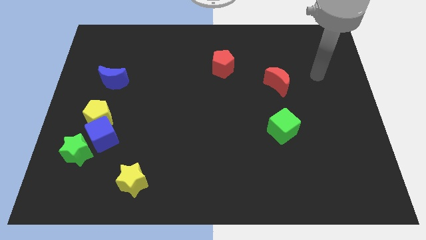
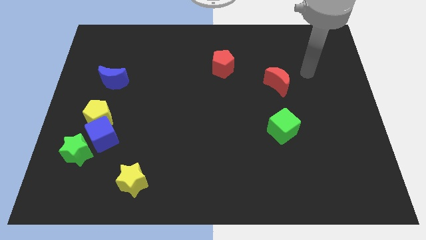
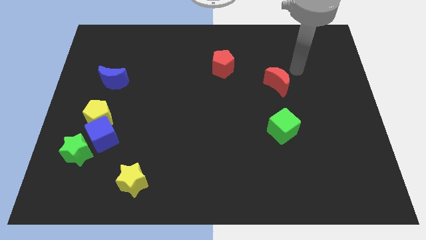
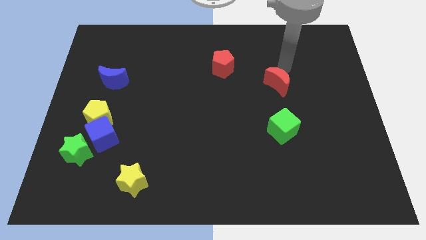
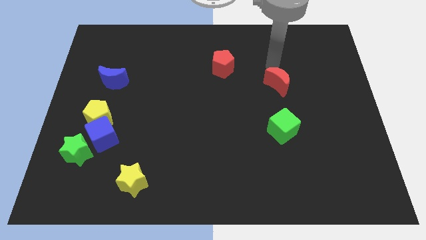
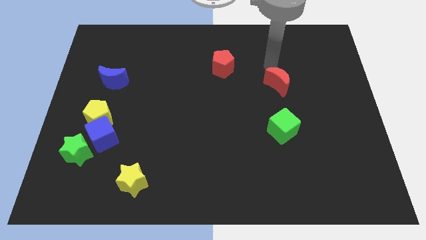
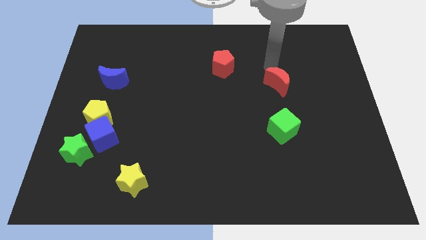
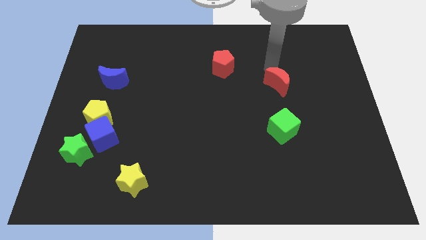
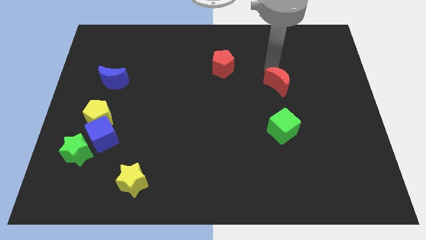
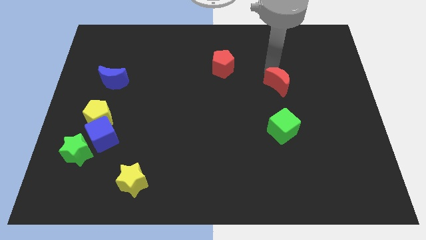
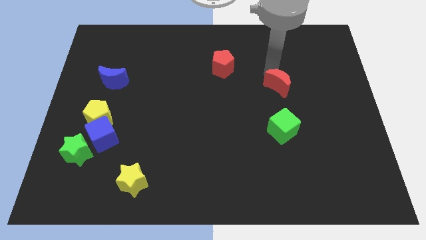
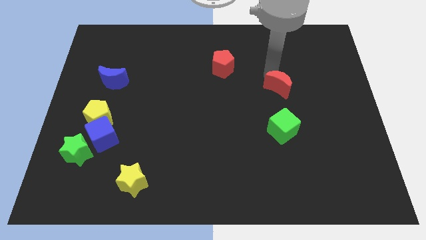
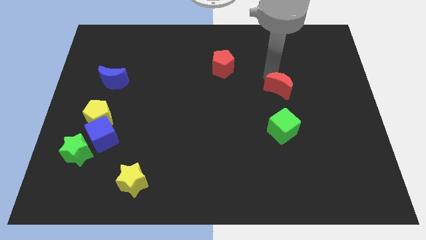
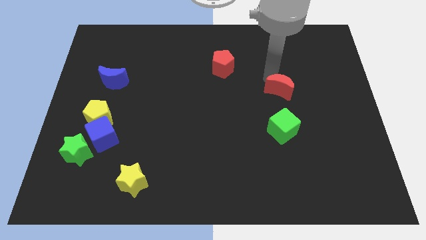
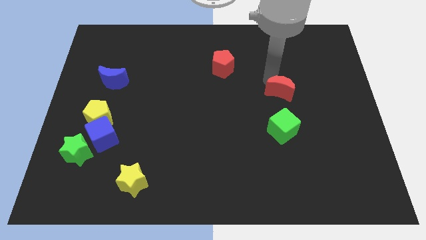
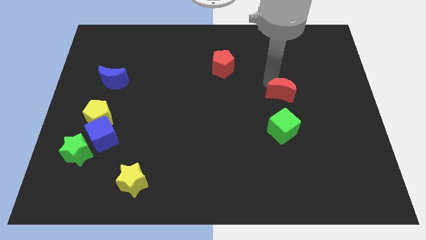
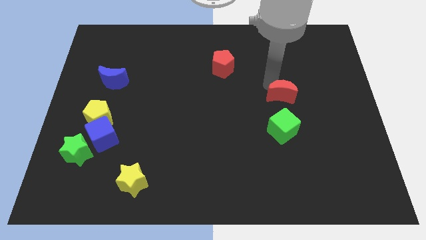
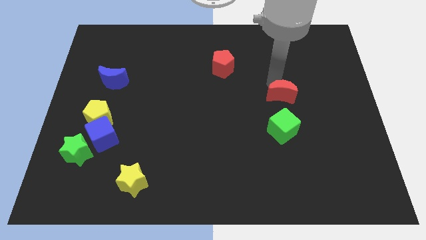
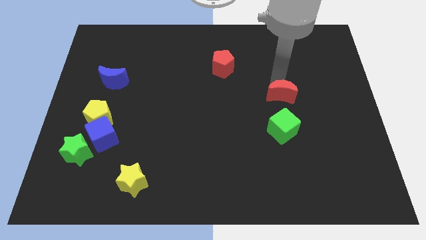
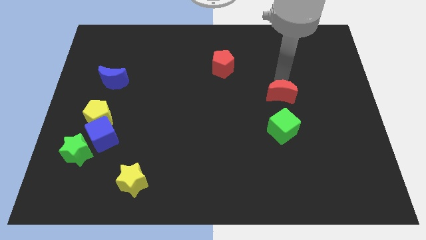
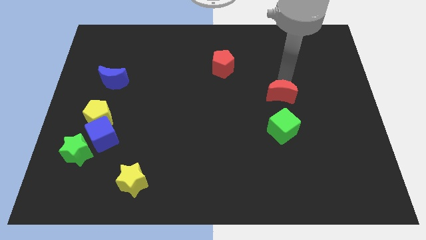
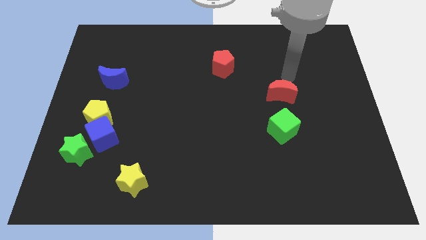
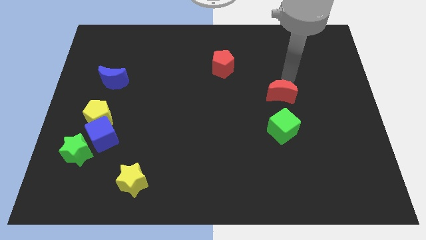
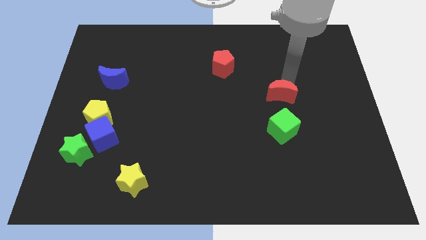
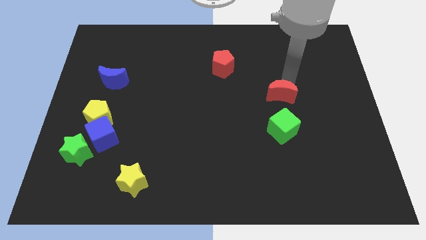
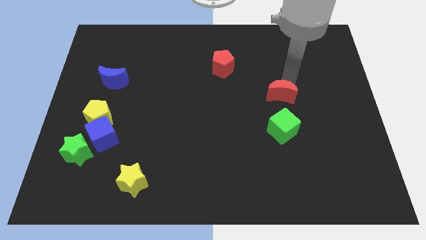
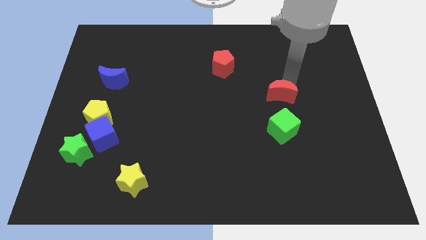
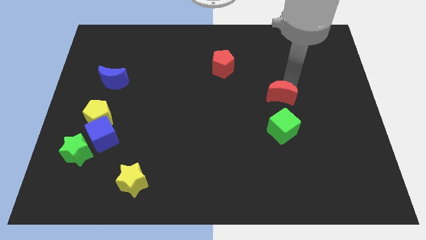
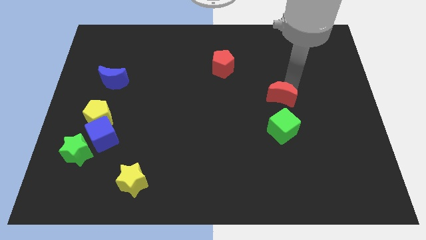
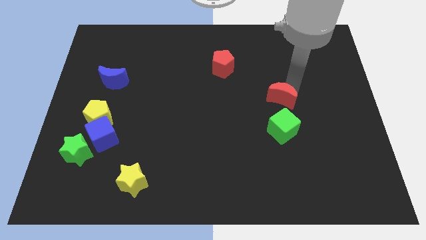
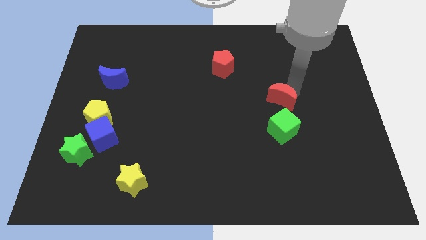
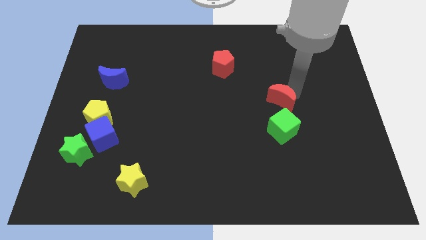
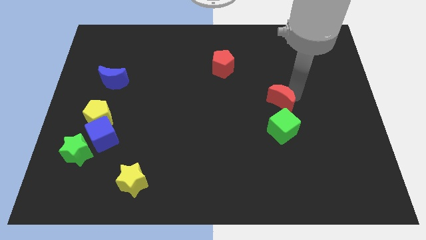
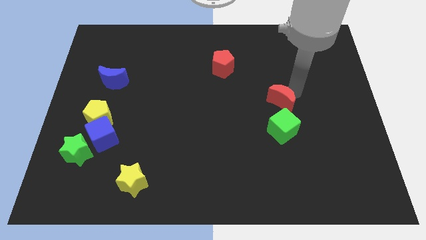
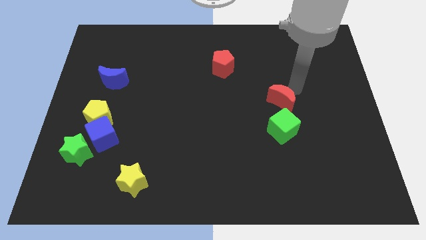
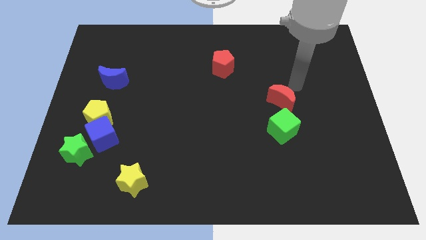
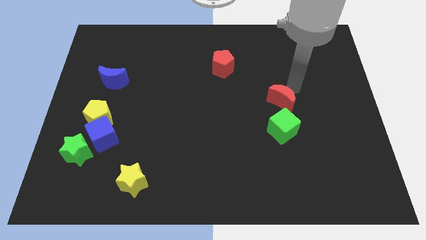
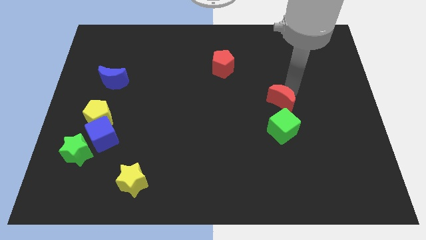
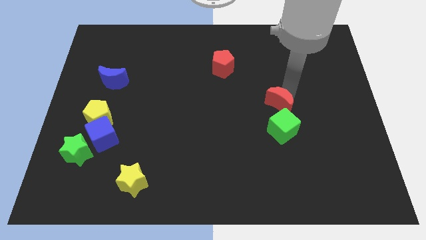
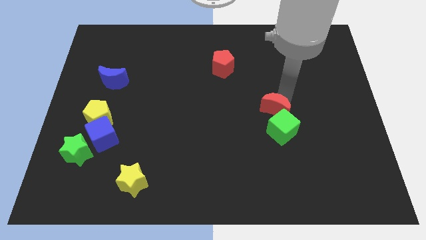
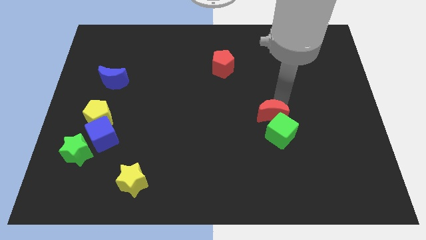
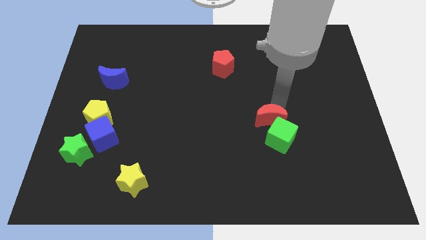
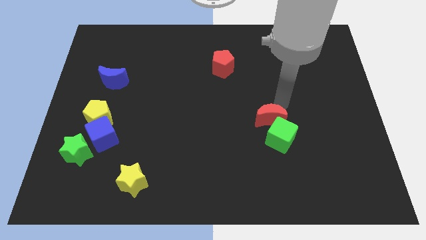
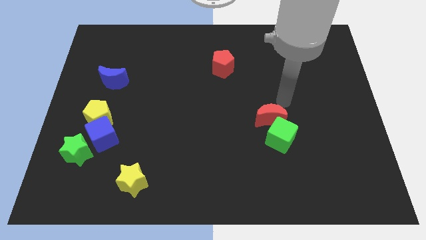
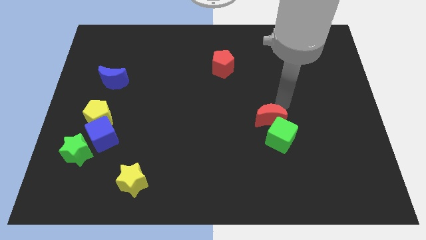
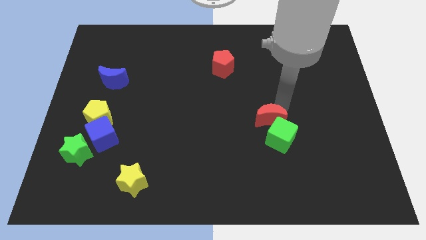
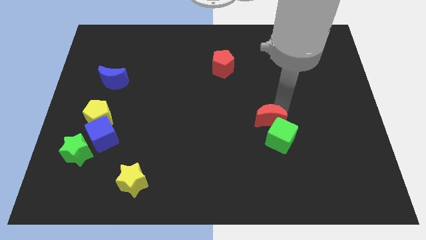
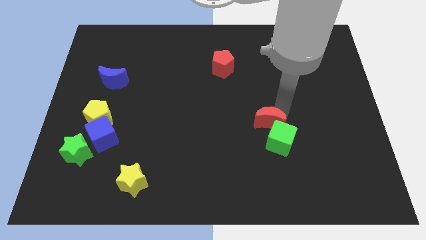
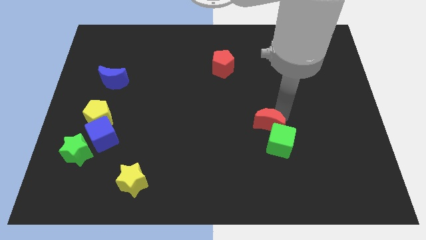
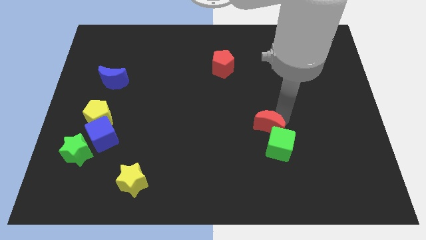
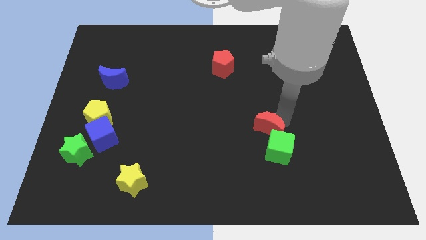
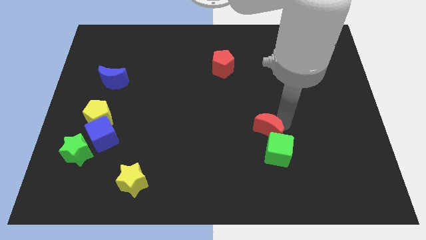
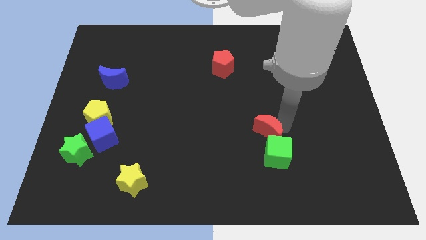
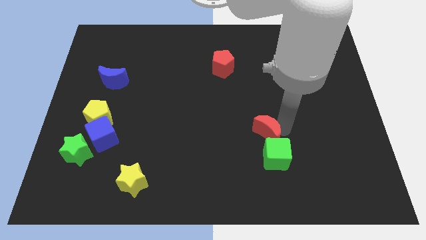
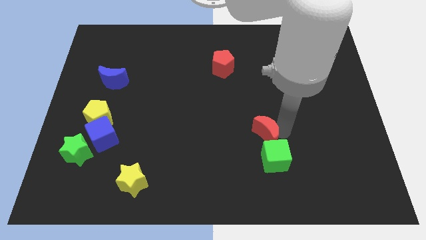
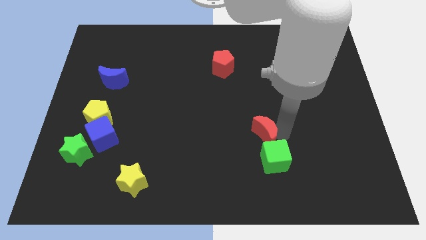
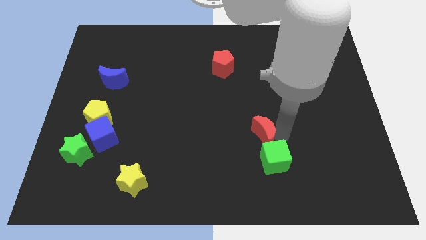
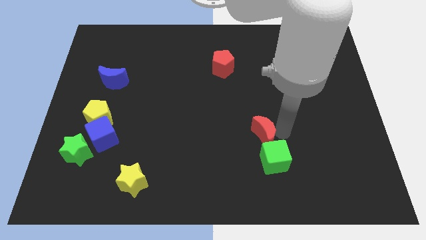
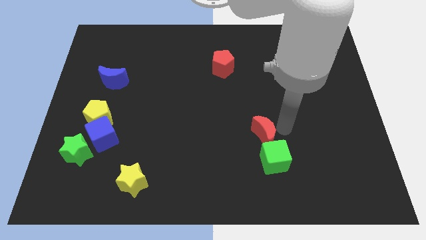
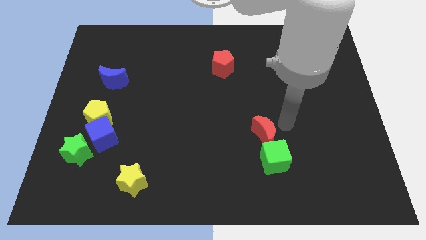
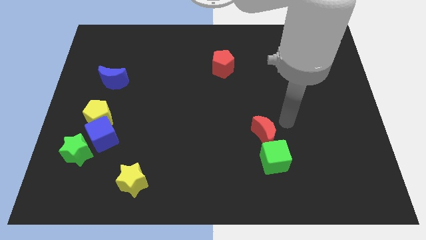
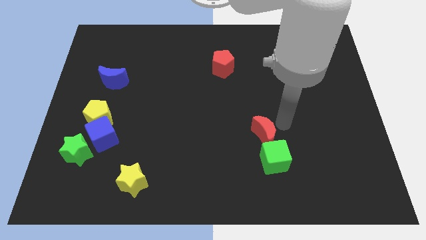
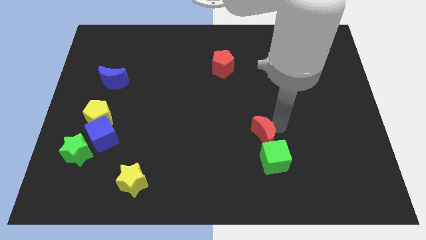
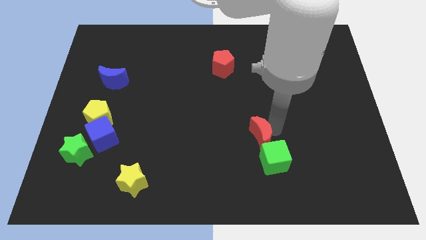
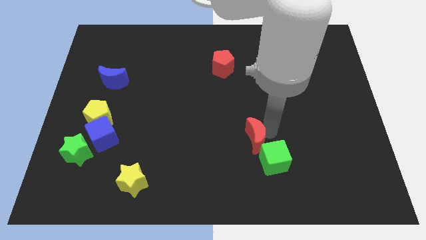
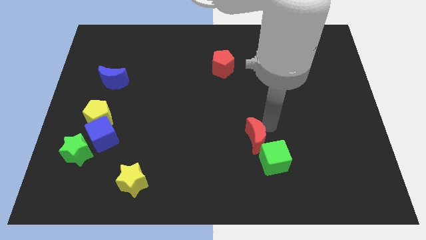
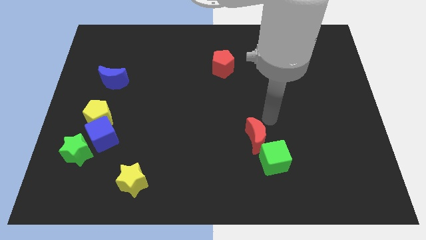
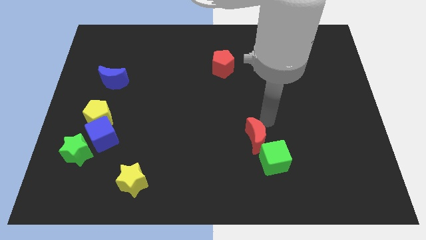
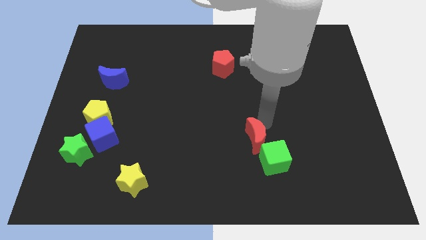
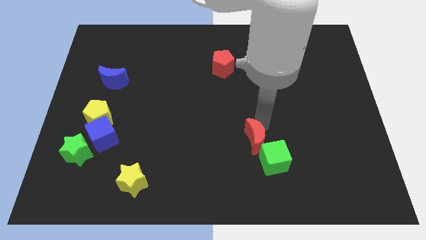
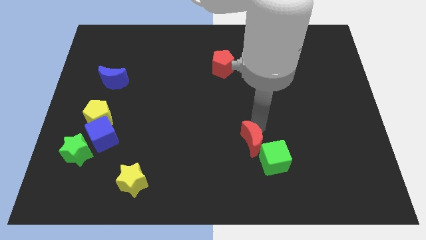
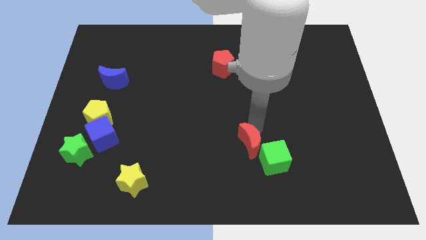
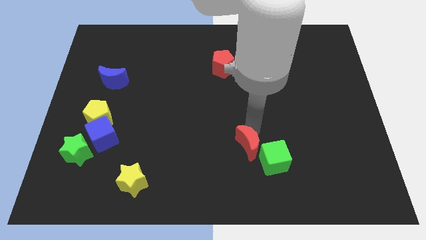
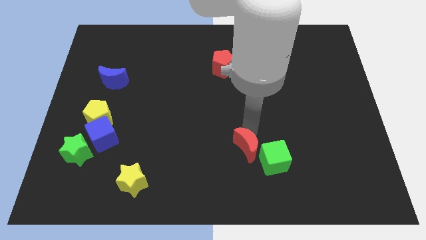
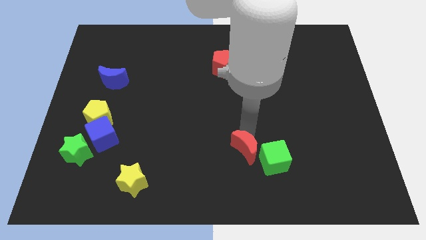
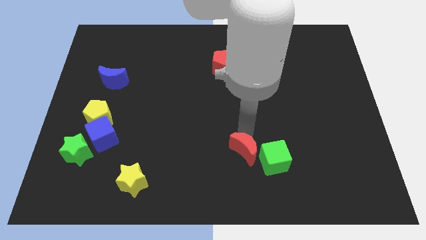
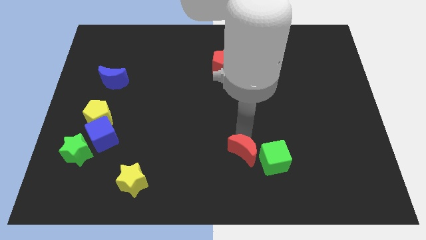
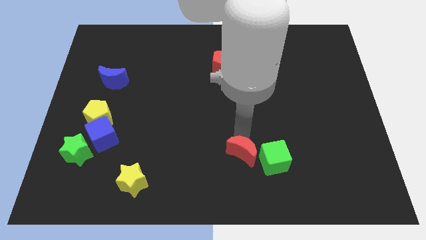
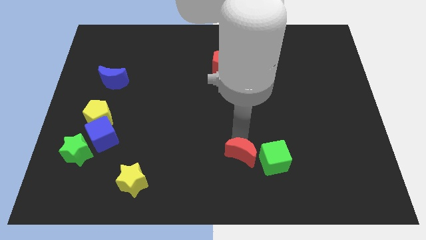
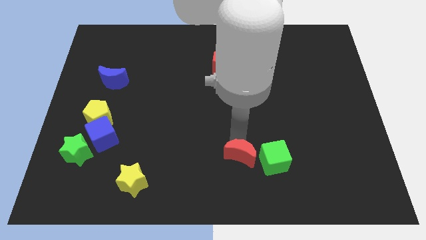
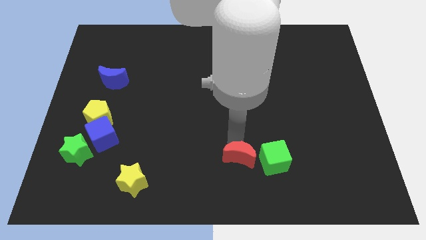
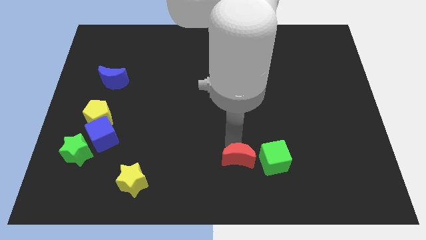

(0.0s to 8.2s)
slide the red moon to the bottom side
